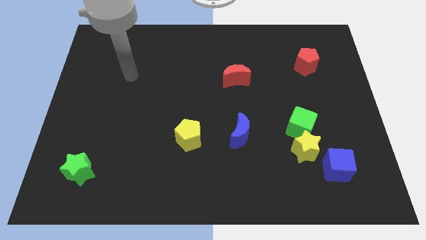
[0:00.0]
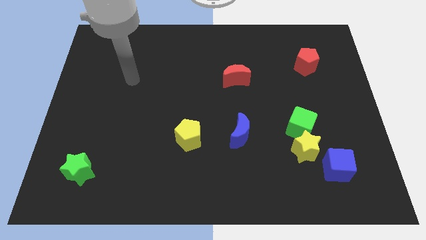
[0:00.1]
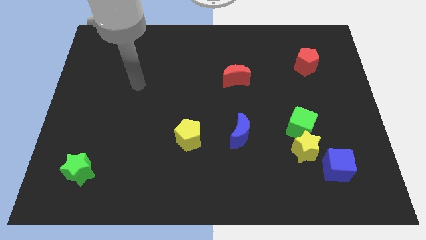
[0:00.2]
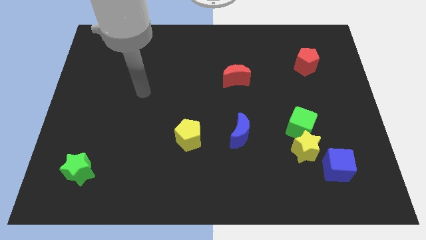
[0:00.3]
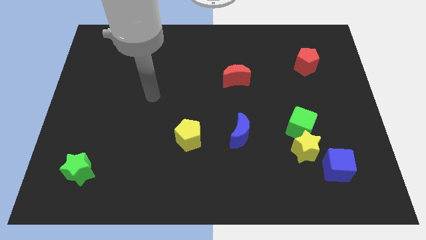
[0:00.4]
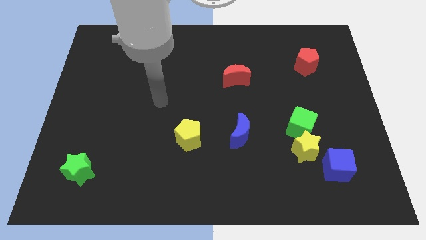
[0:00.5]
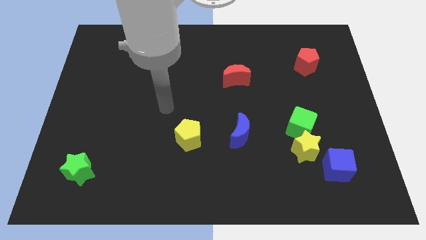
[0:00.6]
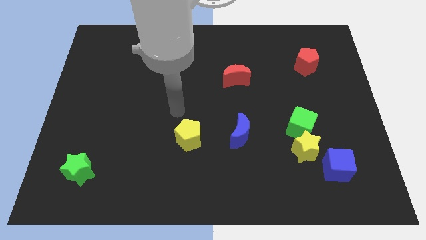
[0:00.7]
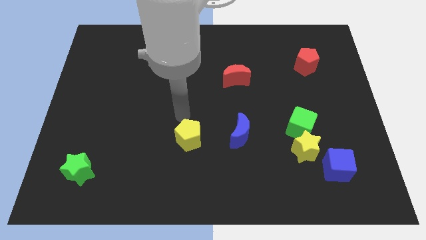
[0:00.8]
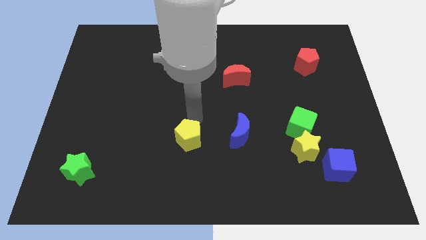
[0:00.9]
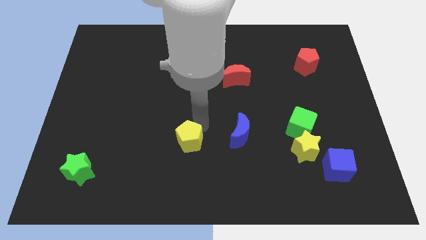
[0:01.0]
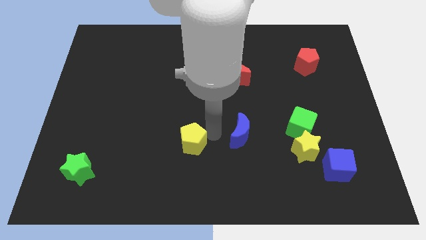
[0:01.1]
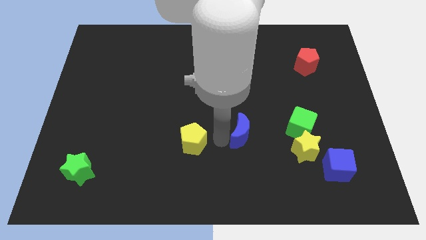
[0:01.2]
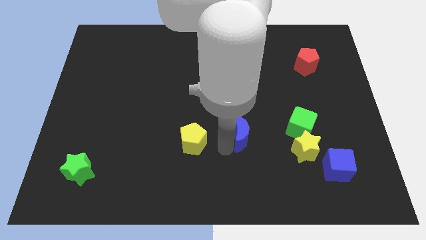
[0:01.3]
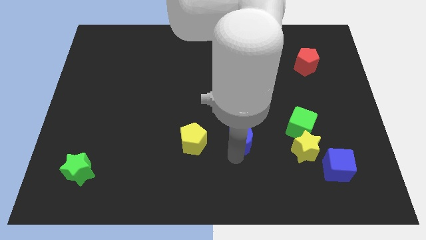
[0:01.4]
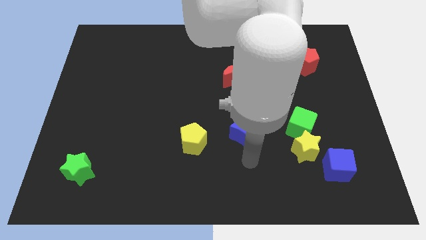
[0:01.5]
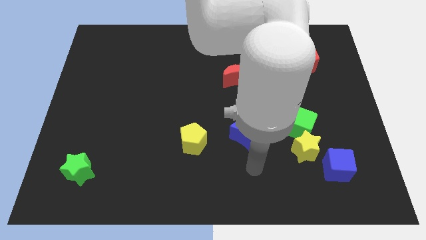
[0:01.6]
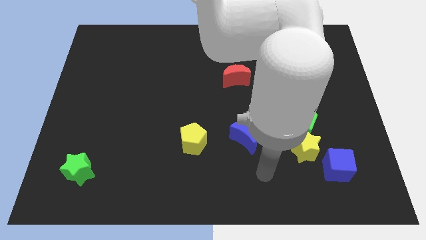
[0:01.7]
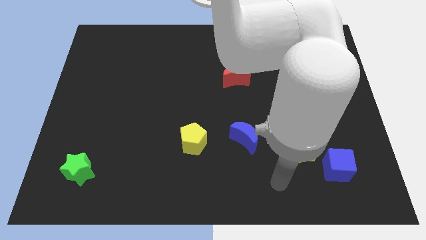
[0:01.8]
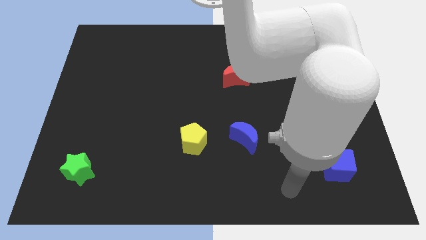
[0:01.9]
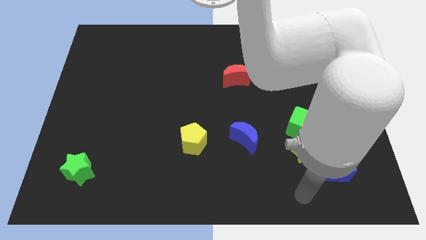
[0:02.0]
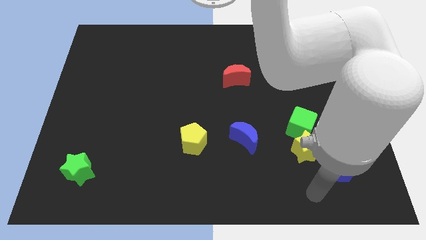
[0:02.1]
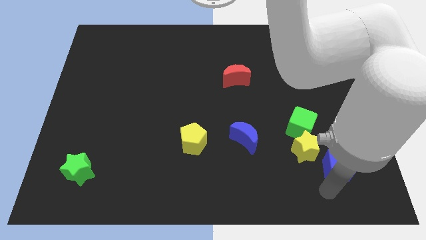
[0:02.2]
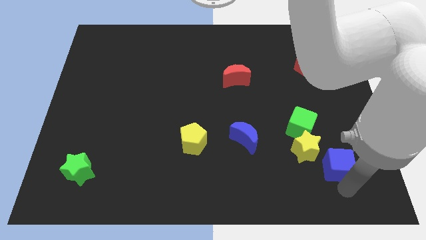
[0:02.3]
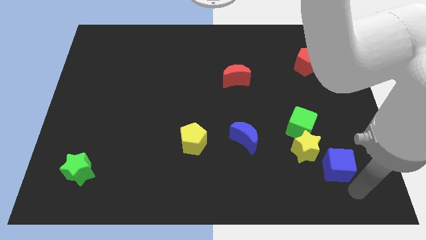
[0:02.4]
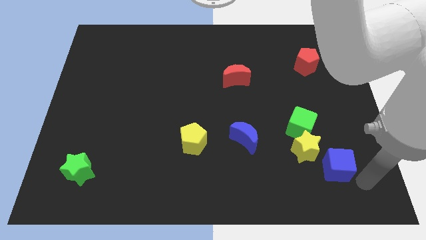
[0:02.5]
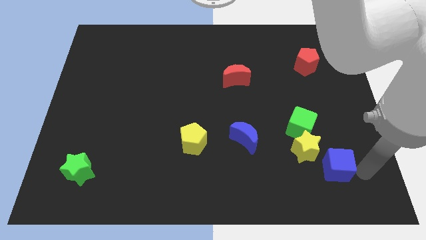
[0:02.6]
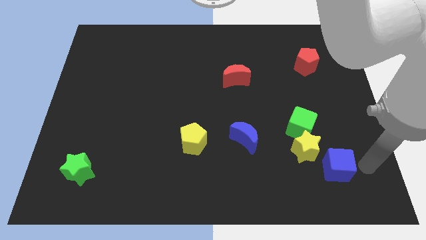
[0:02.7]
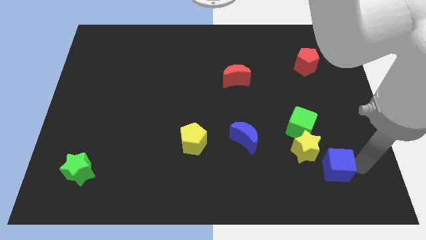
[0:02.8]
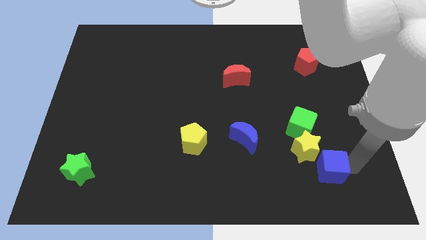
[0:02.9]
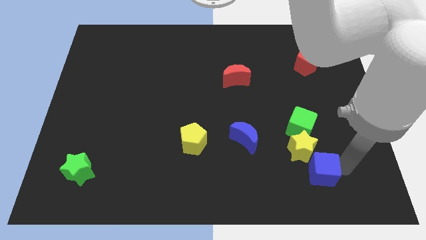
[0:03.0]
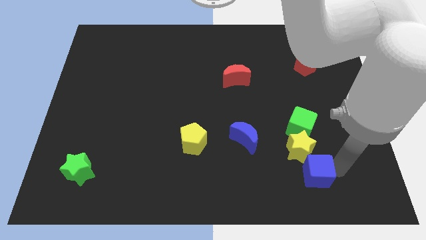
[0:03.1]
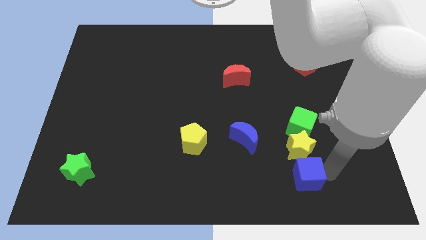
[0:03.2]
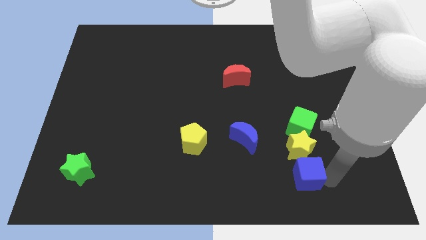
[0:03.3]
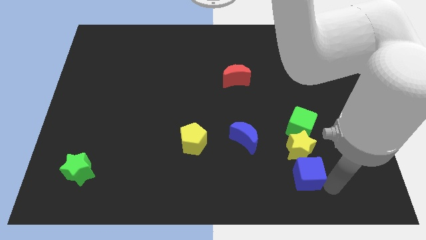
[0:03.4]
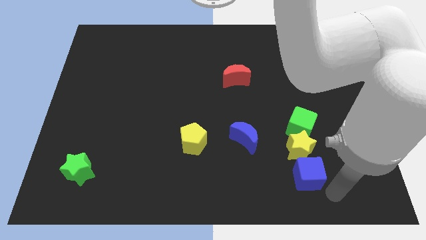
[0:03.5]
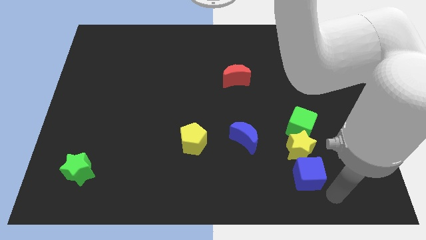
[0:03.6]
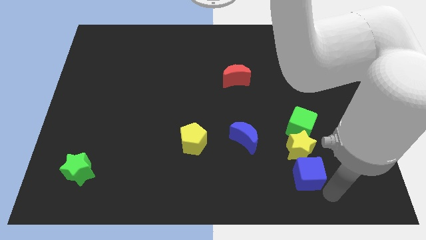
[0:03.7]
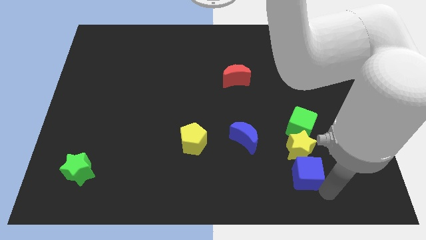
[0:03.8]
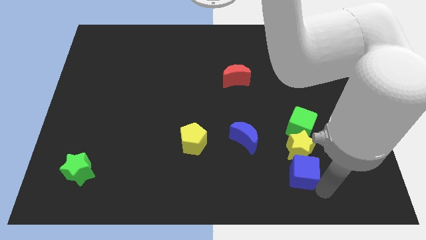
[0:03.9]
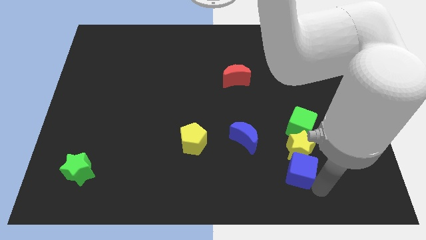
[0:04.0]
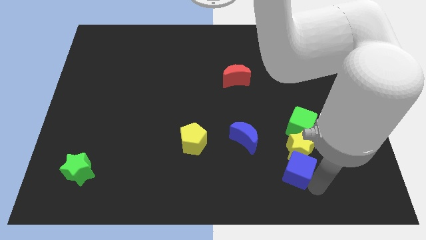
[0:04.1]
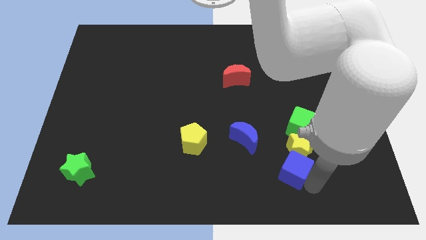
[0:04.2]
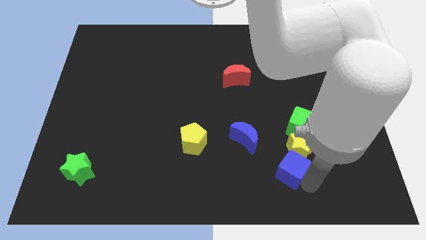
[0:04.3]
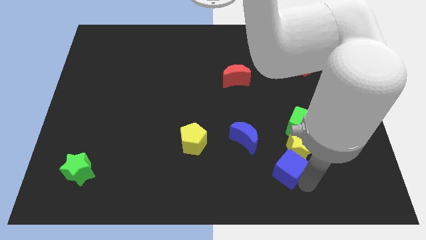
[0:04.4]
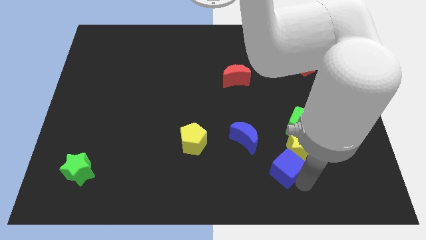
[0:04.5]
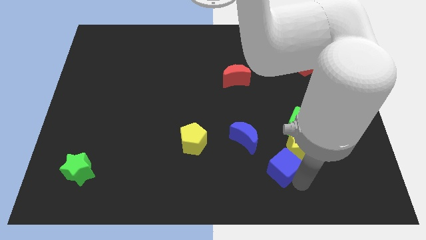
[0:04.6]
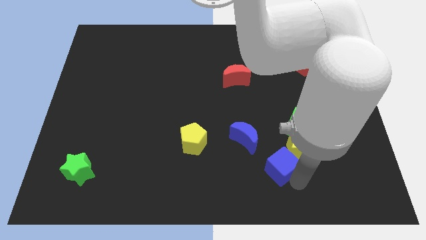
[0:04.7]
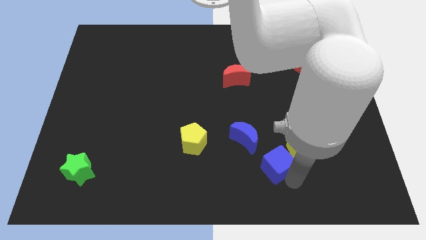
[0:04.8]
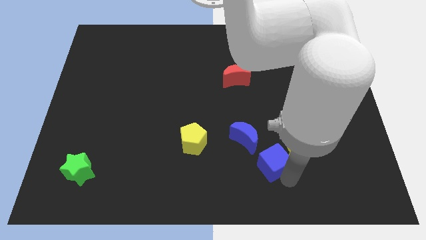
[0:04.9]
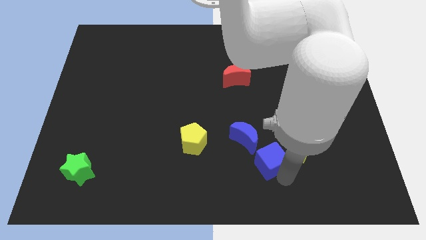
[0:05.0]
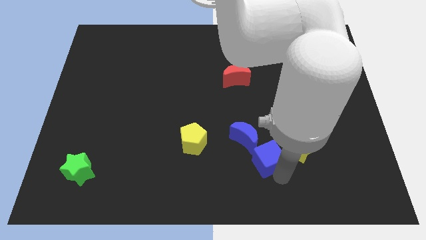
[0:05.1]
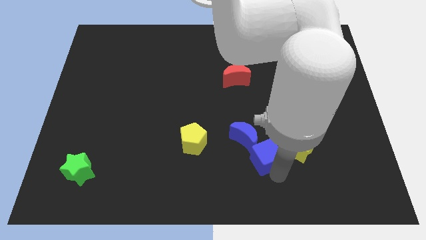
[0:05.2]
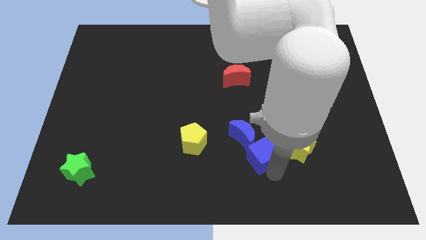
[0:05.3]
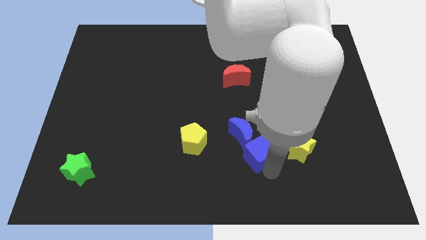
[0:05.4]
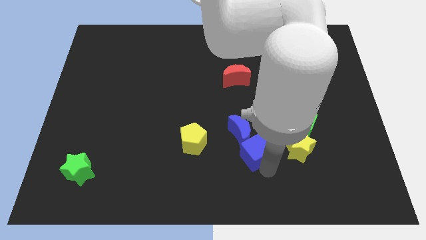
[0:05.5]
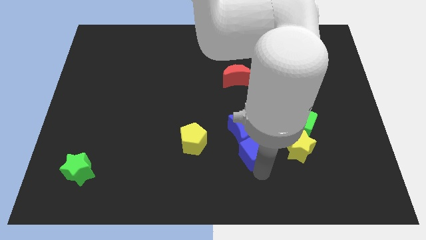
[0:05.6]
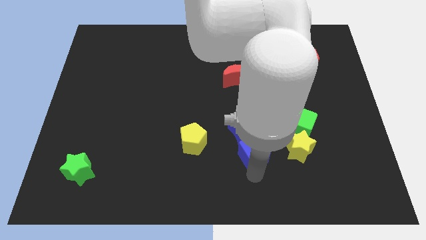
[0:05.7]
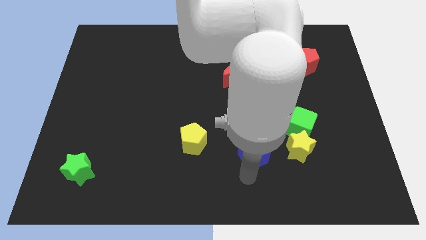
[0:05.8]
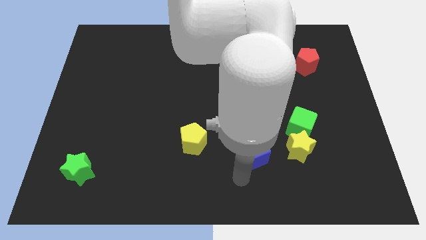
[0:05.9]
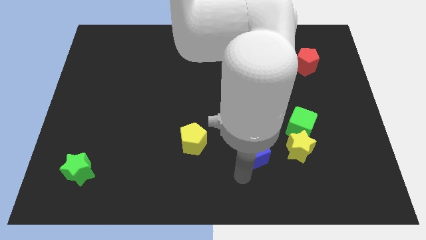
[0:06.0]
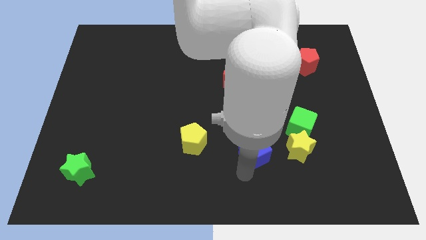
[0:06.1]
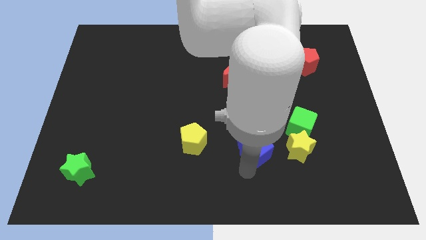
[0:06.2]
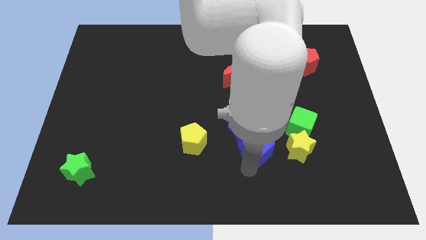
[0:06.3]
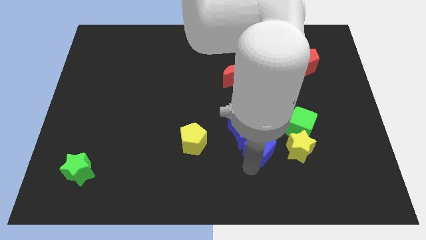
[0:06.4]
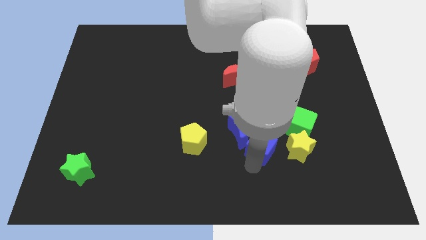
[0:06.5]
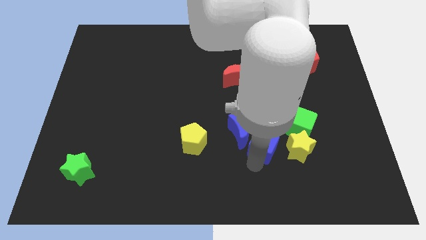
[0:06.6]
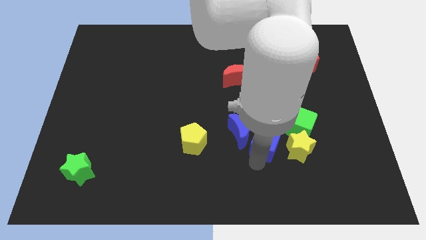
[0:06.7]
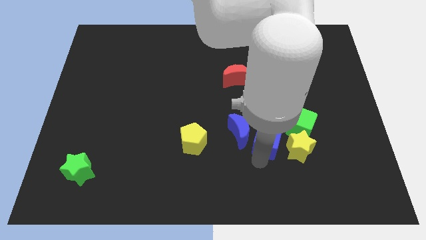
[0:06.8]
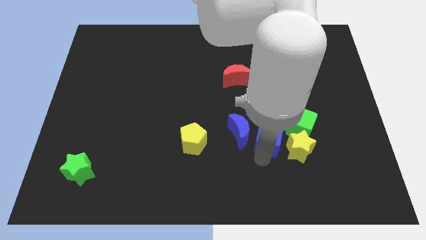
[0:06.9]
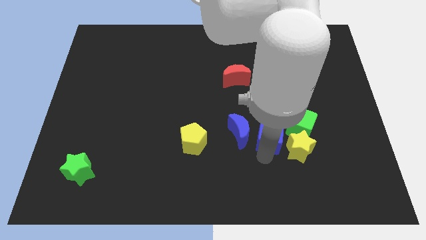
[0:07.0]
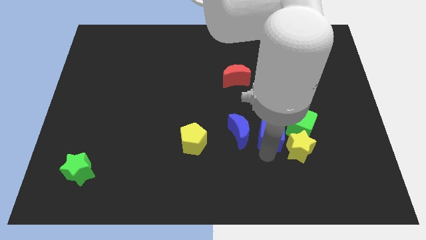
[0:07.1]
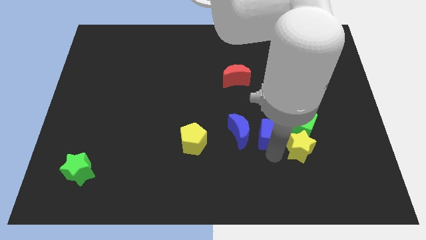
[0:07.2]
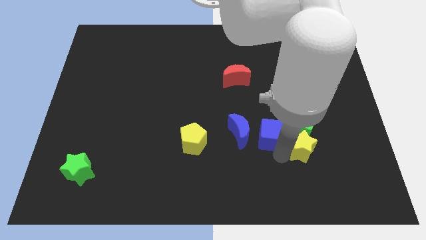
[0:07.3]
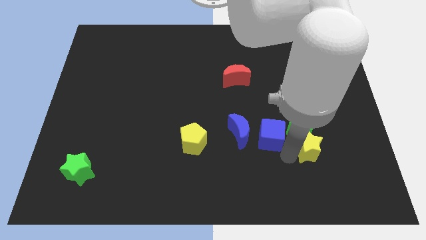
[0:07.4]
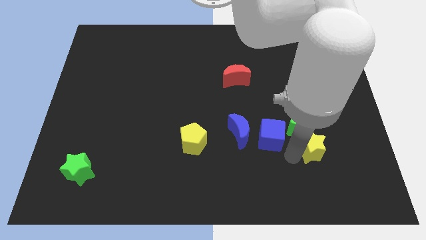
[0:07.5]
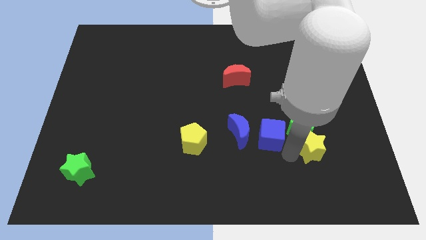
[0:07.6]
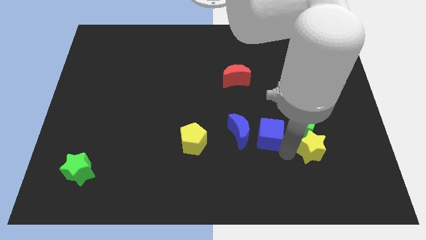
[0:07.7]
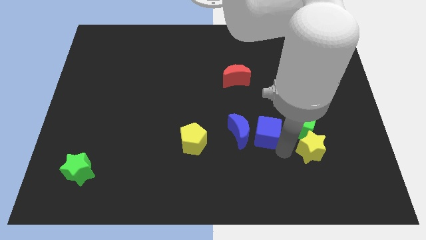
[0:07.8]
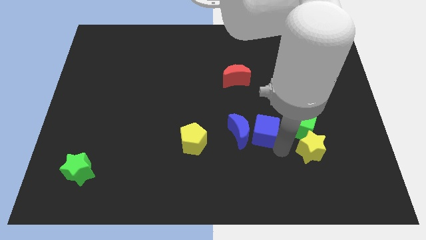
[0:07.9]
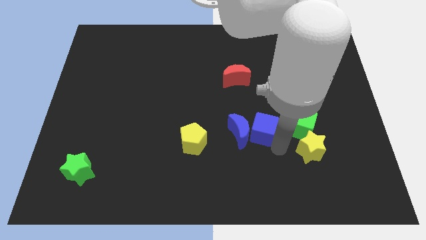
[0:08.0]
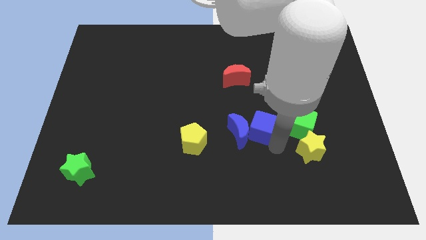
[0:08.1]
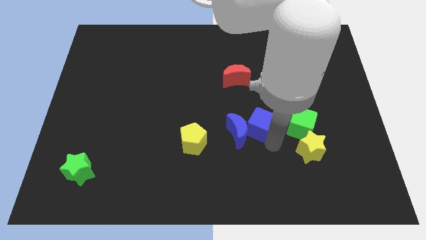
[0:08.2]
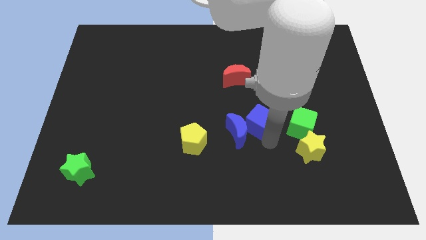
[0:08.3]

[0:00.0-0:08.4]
push the blue cube to the middle of the board
